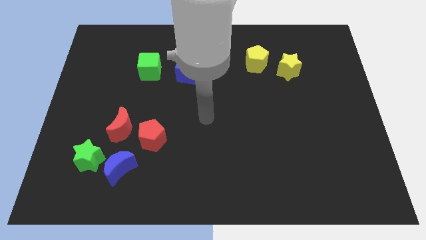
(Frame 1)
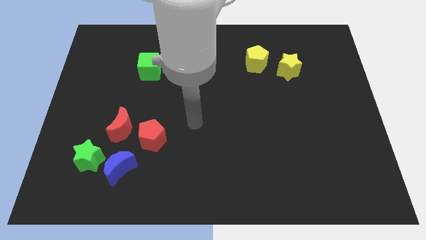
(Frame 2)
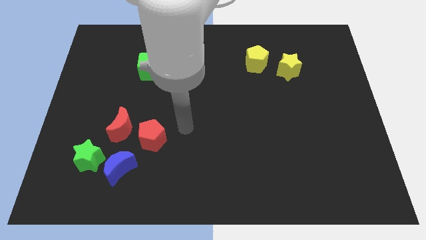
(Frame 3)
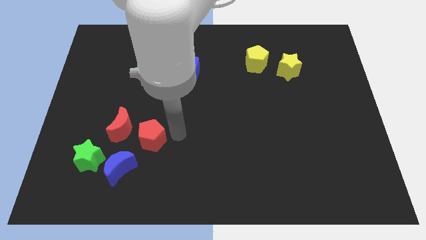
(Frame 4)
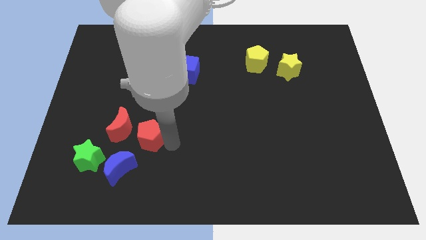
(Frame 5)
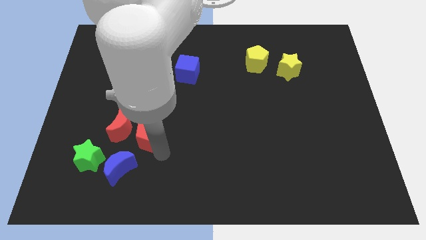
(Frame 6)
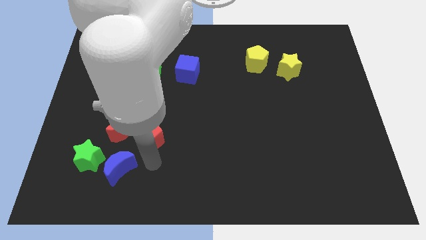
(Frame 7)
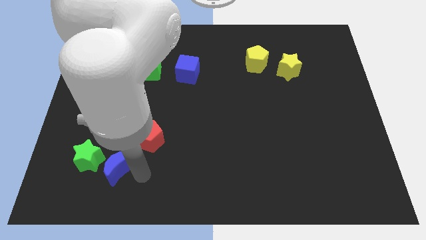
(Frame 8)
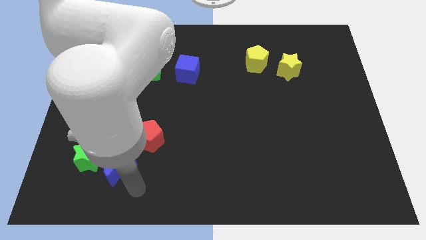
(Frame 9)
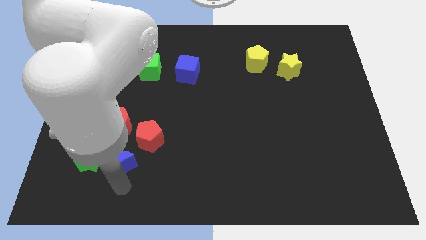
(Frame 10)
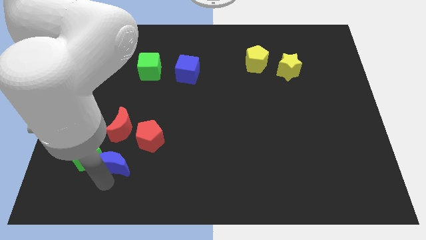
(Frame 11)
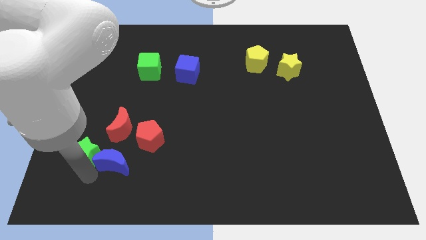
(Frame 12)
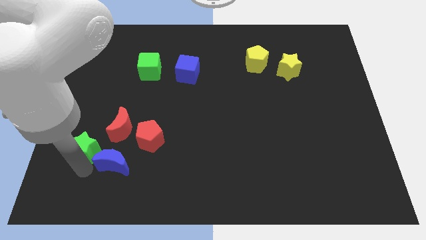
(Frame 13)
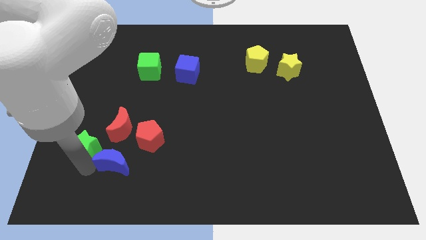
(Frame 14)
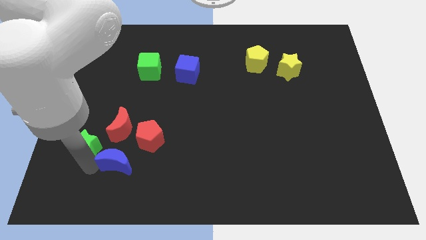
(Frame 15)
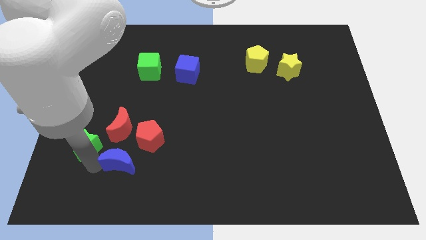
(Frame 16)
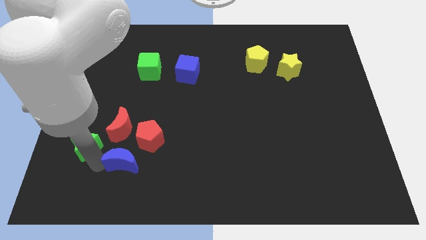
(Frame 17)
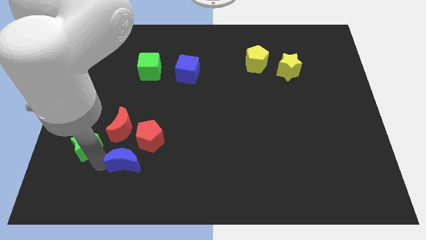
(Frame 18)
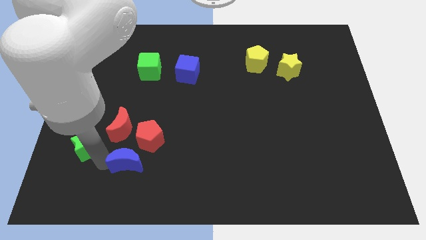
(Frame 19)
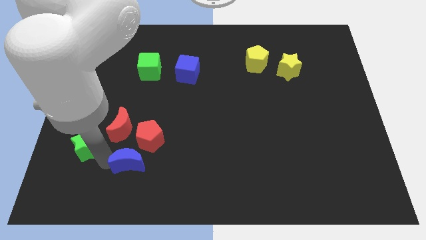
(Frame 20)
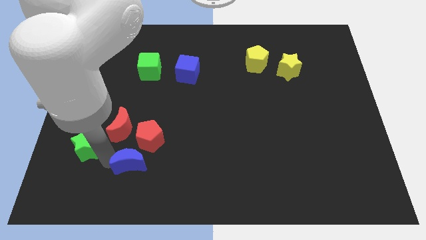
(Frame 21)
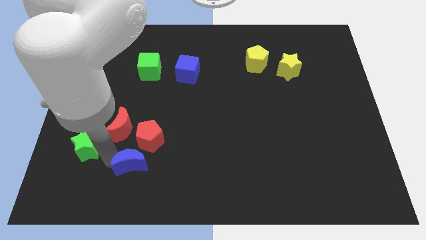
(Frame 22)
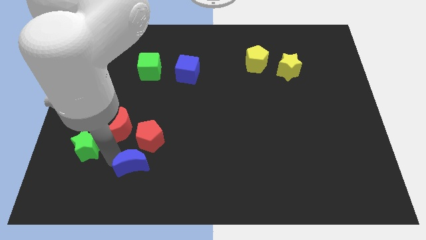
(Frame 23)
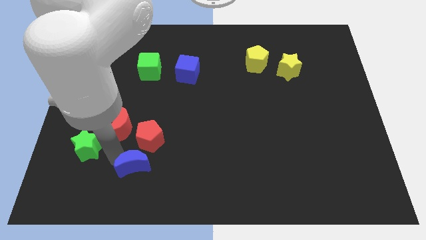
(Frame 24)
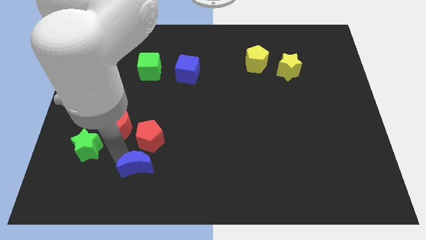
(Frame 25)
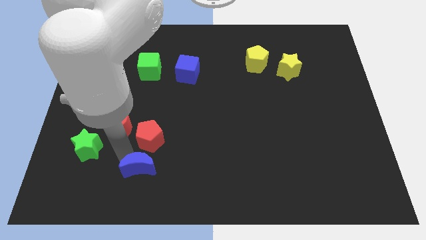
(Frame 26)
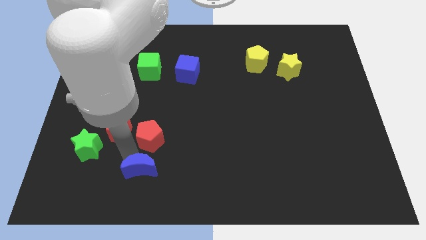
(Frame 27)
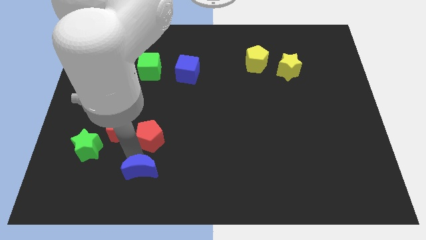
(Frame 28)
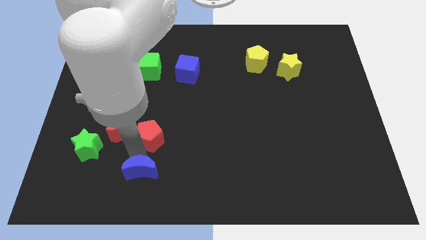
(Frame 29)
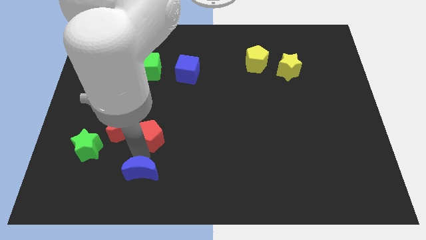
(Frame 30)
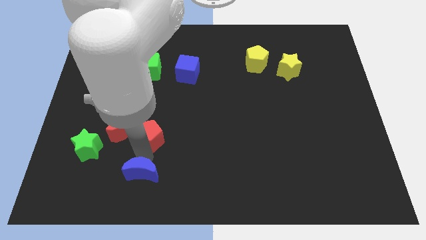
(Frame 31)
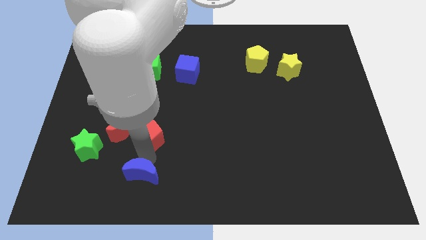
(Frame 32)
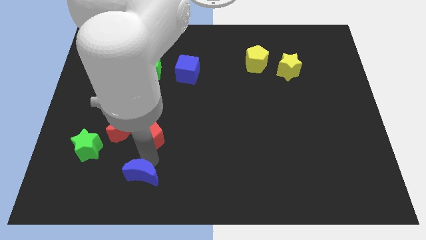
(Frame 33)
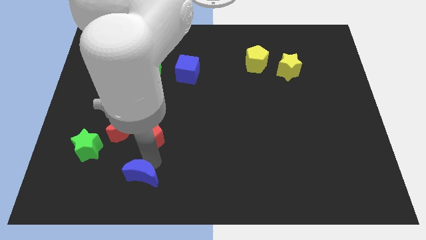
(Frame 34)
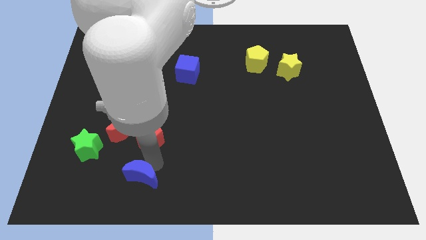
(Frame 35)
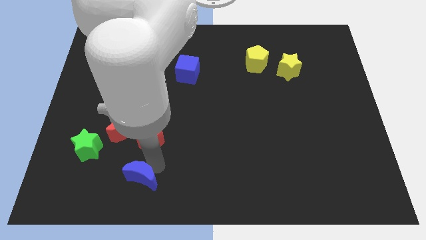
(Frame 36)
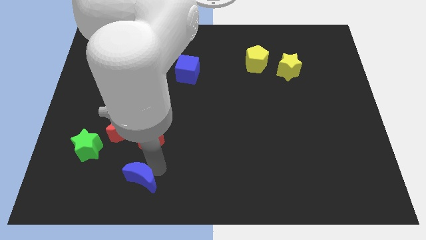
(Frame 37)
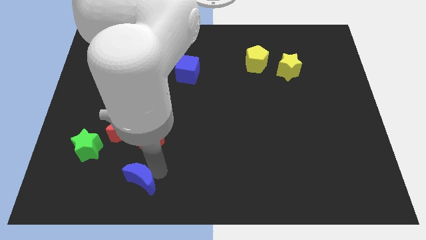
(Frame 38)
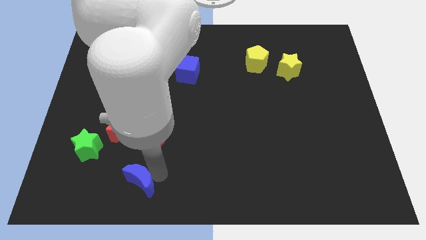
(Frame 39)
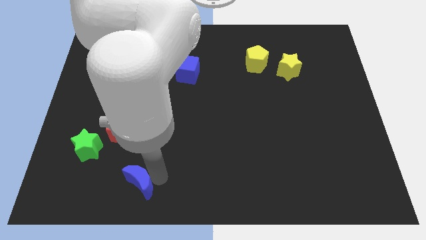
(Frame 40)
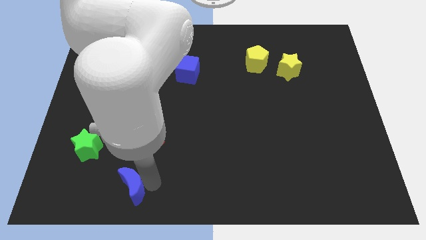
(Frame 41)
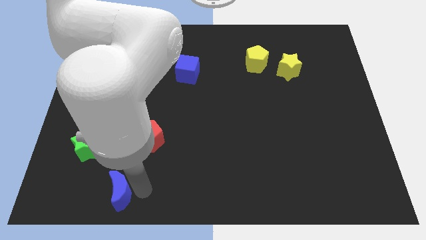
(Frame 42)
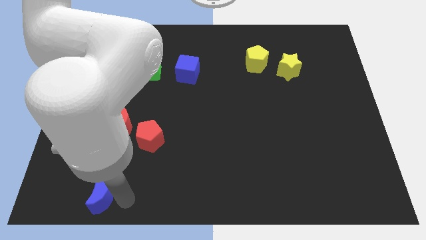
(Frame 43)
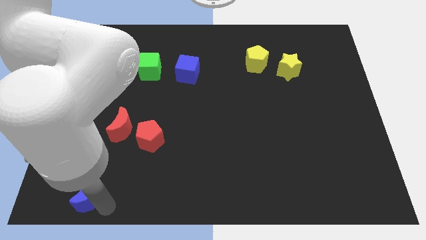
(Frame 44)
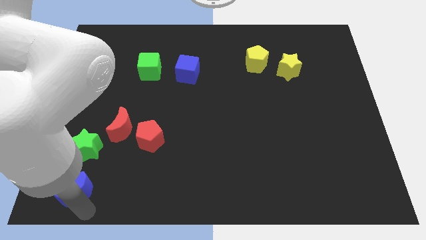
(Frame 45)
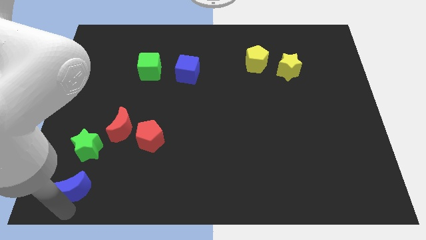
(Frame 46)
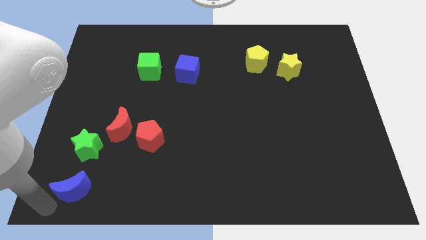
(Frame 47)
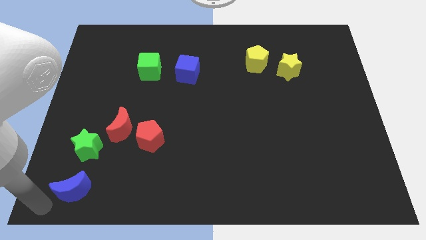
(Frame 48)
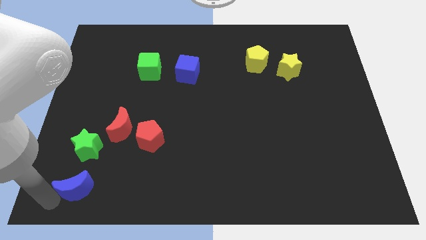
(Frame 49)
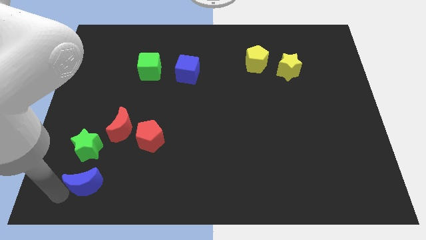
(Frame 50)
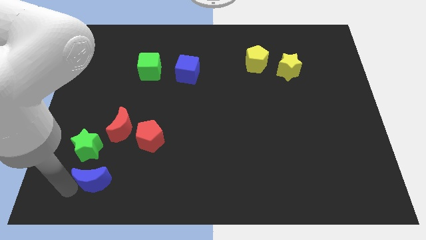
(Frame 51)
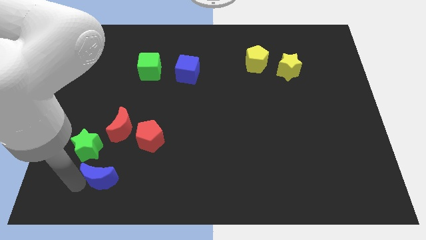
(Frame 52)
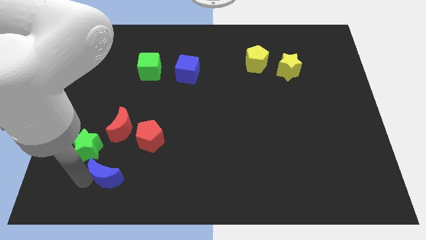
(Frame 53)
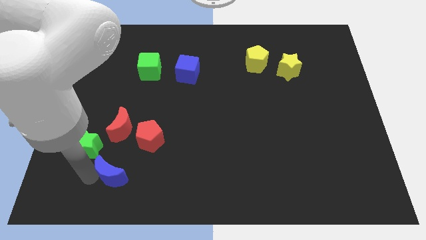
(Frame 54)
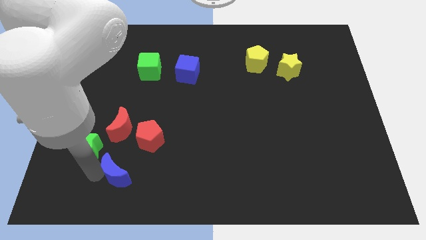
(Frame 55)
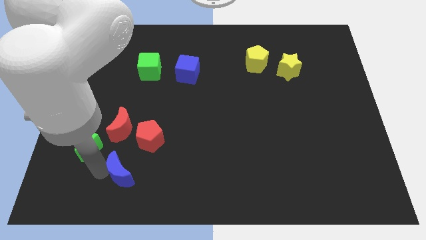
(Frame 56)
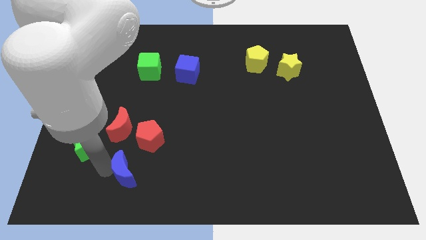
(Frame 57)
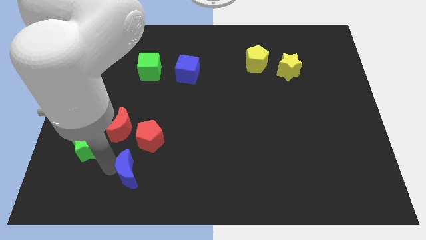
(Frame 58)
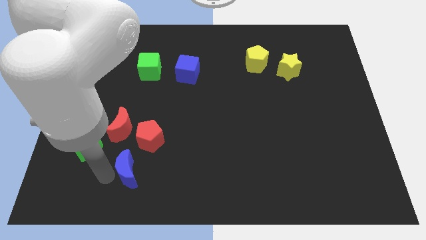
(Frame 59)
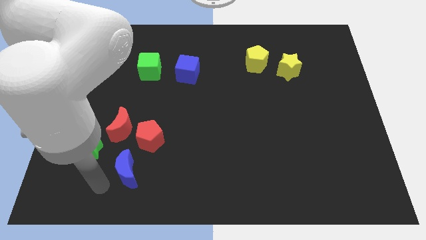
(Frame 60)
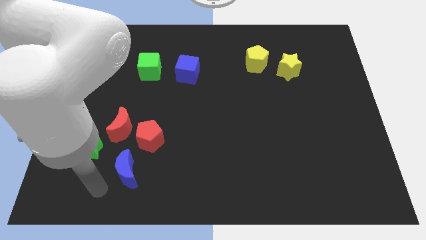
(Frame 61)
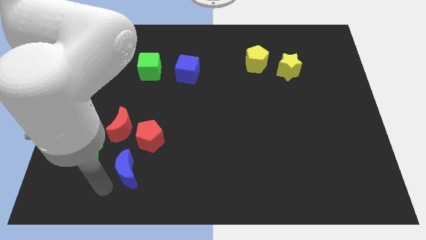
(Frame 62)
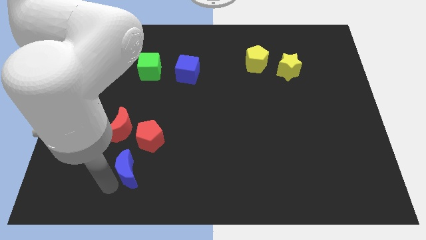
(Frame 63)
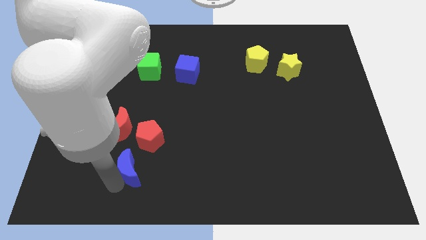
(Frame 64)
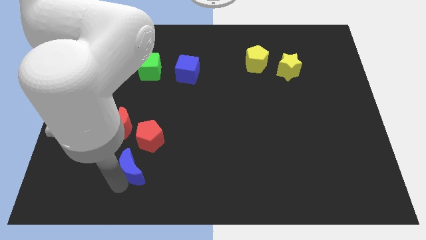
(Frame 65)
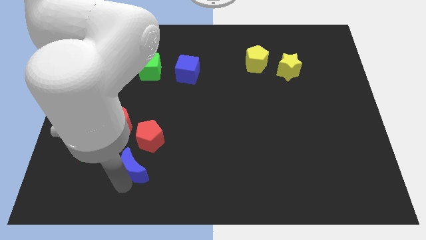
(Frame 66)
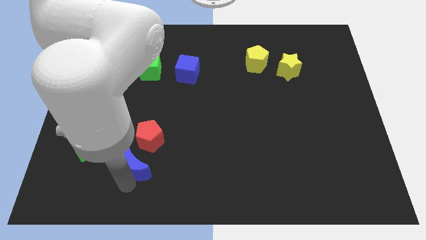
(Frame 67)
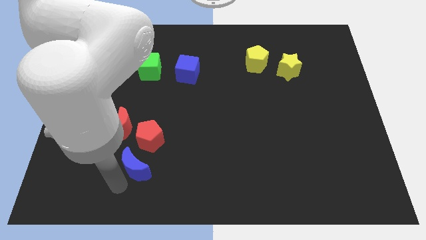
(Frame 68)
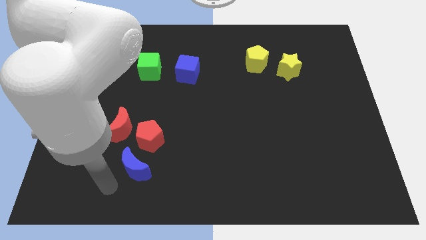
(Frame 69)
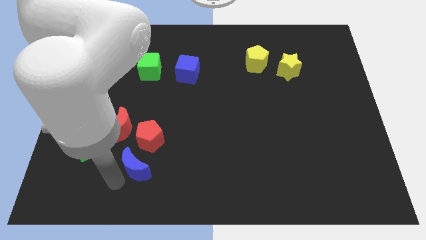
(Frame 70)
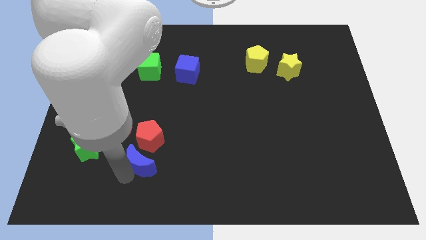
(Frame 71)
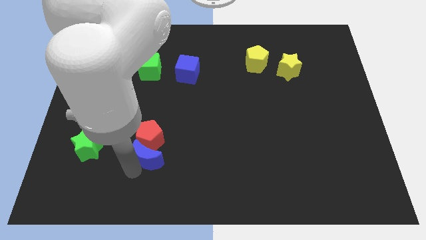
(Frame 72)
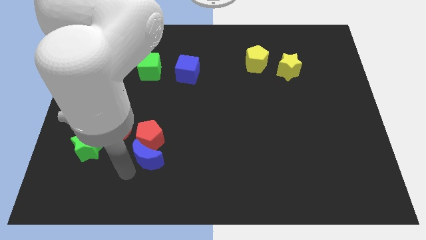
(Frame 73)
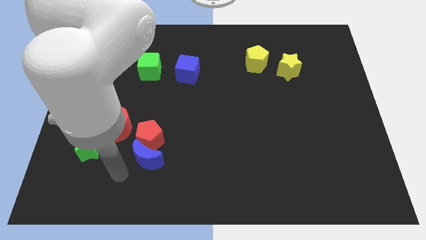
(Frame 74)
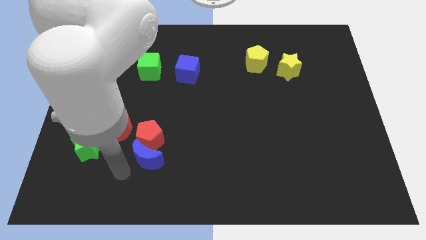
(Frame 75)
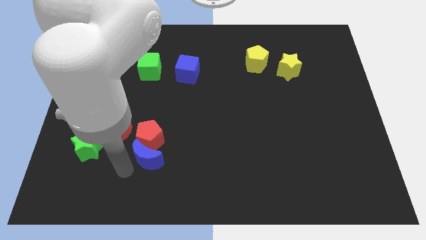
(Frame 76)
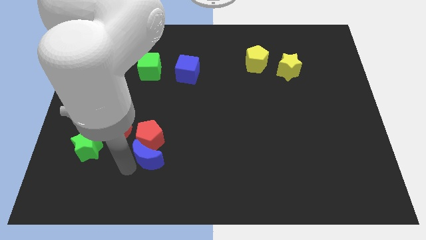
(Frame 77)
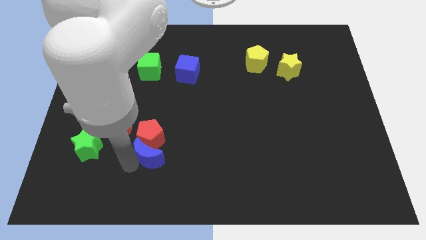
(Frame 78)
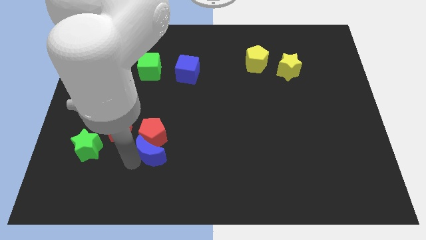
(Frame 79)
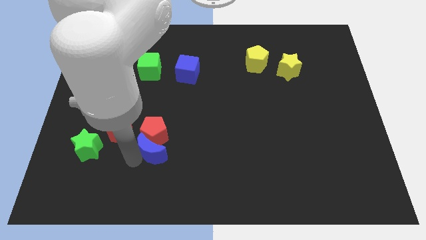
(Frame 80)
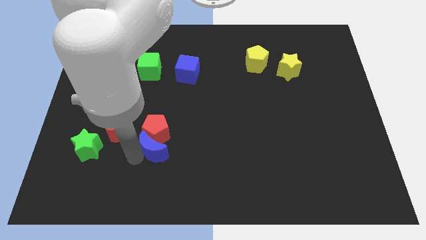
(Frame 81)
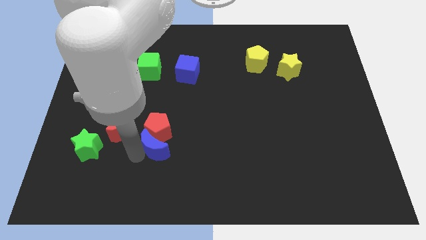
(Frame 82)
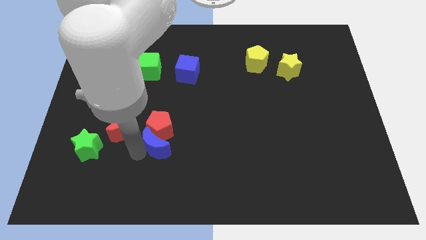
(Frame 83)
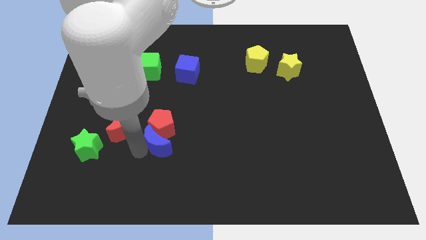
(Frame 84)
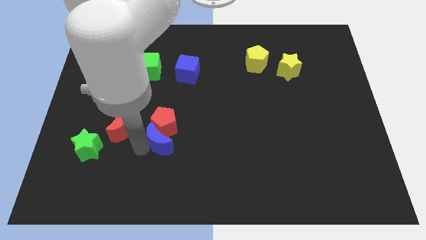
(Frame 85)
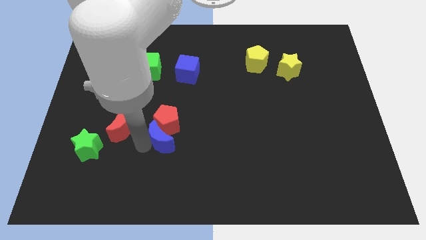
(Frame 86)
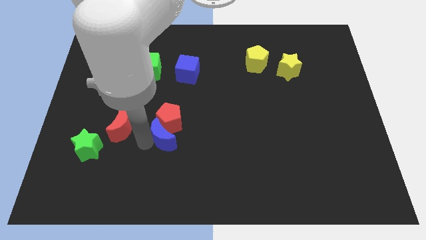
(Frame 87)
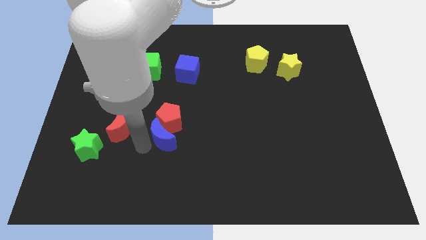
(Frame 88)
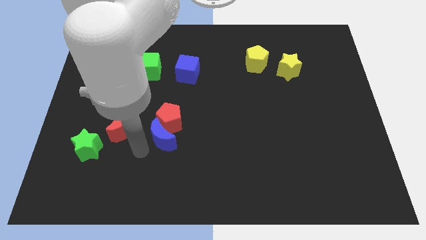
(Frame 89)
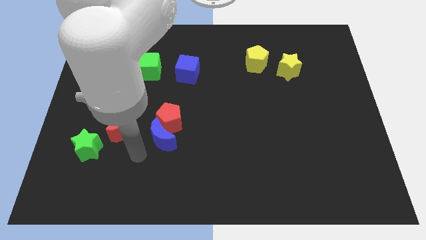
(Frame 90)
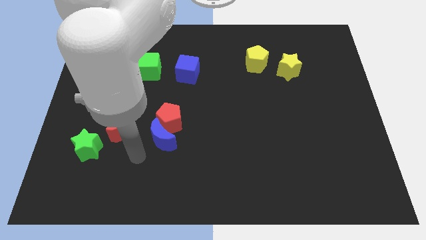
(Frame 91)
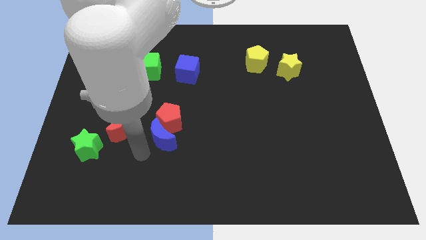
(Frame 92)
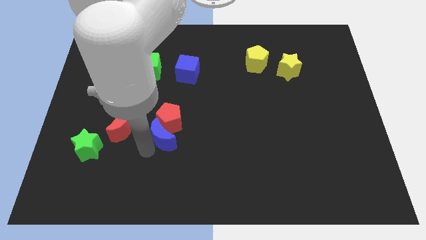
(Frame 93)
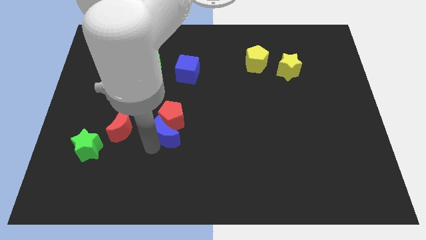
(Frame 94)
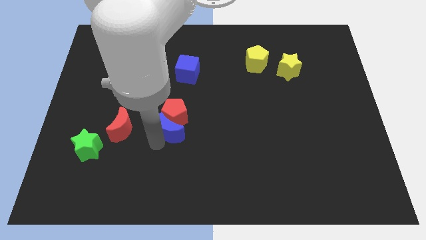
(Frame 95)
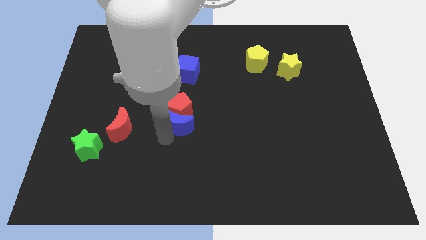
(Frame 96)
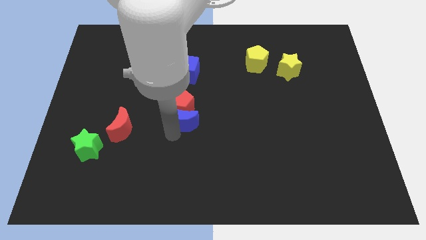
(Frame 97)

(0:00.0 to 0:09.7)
push the blue moon to the bottom of the blue cube
